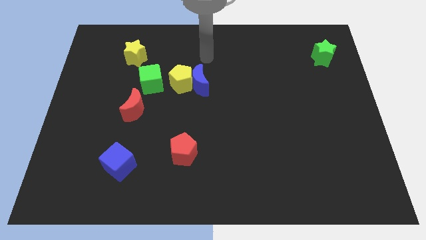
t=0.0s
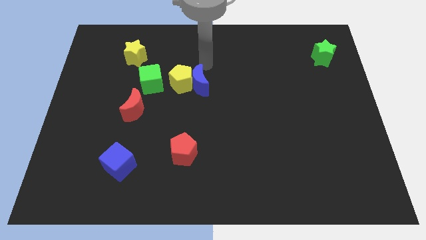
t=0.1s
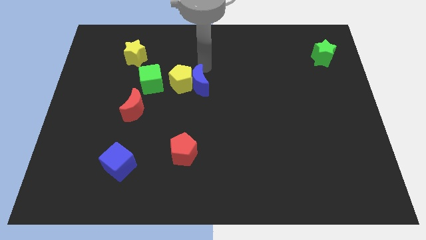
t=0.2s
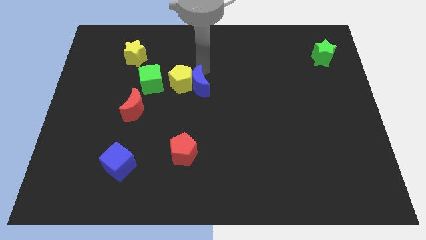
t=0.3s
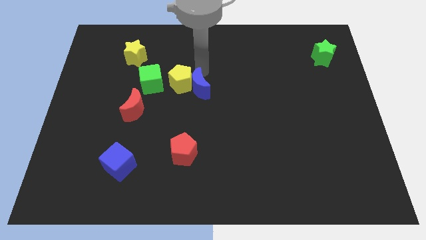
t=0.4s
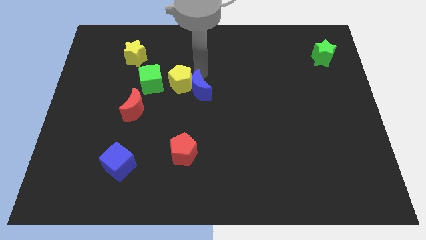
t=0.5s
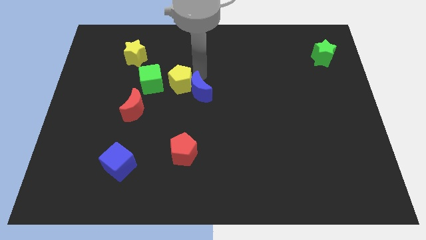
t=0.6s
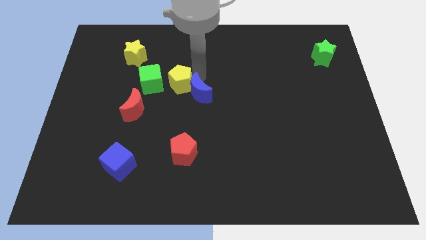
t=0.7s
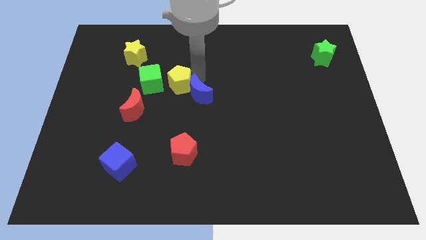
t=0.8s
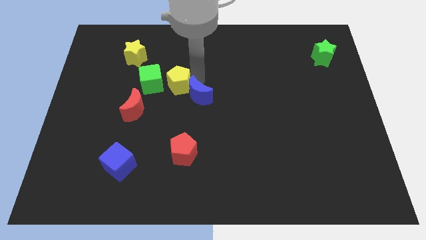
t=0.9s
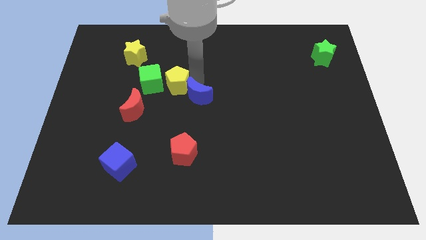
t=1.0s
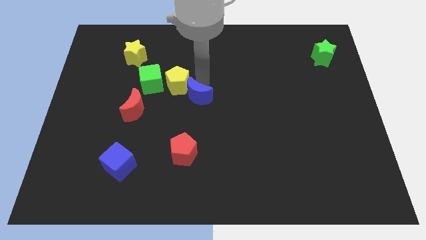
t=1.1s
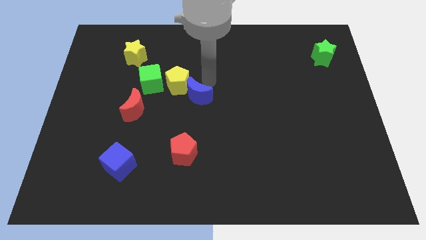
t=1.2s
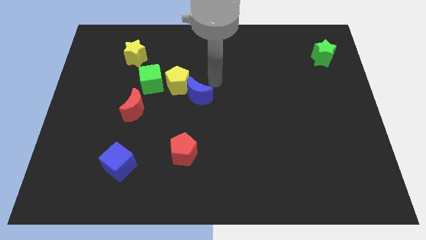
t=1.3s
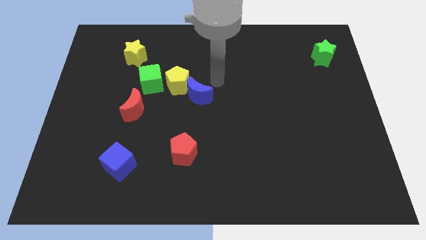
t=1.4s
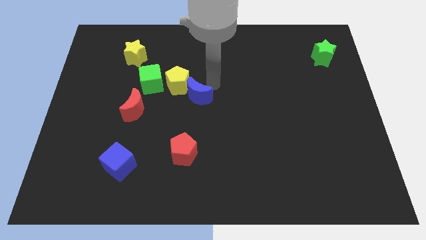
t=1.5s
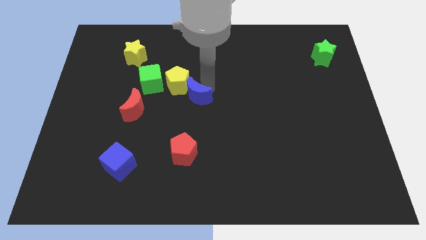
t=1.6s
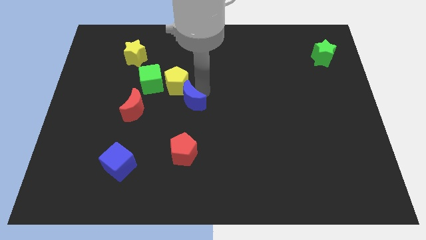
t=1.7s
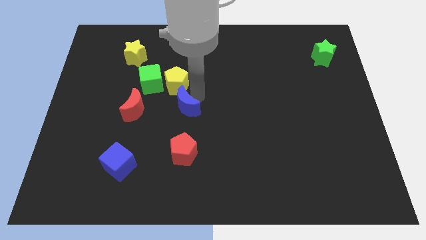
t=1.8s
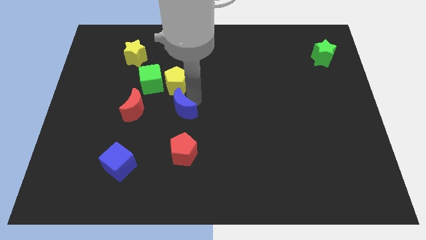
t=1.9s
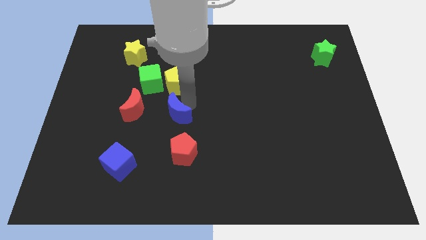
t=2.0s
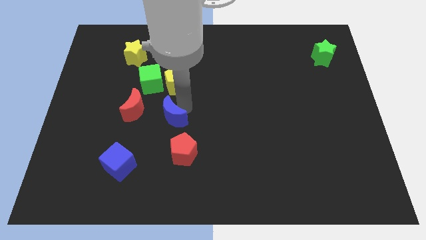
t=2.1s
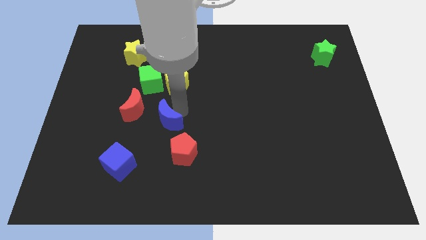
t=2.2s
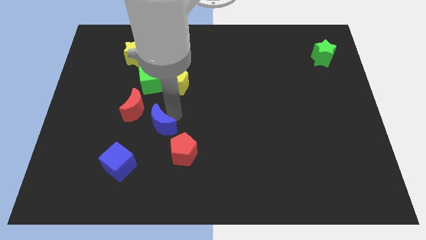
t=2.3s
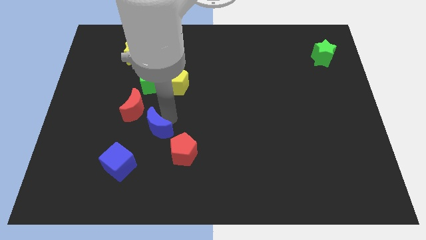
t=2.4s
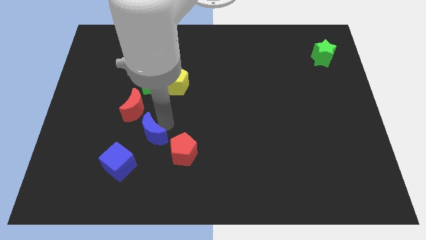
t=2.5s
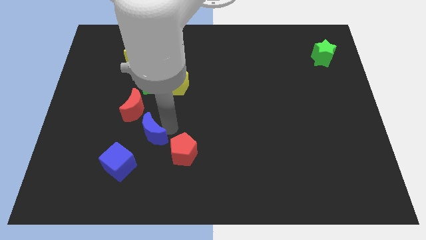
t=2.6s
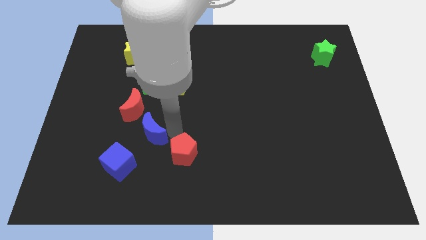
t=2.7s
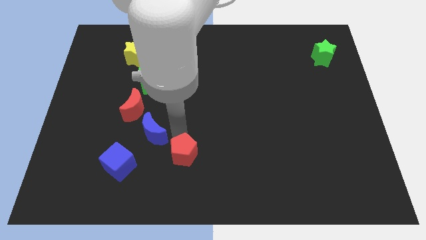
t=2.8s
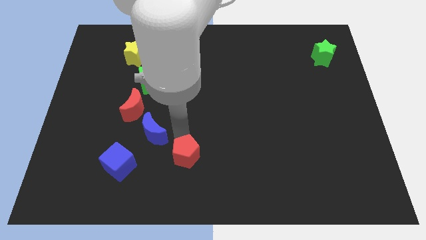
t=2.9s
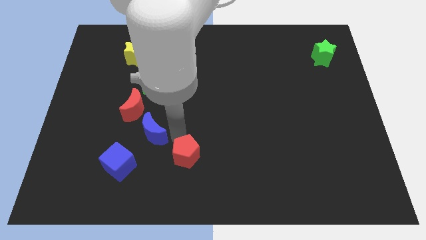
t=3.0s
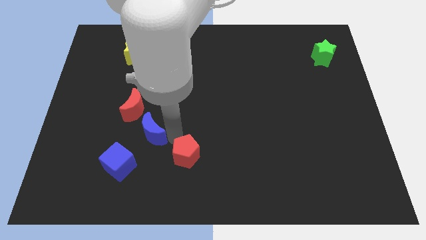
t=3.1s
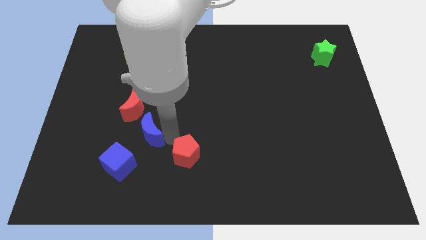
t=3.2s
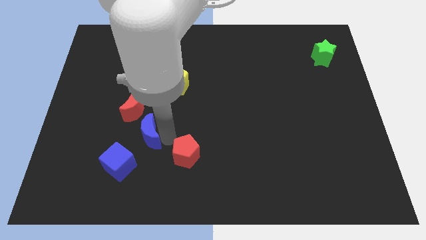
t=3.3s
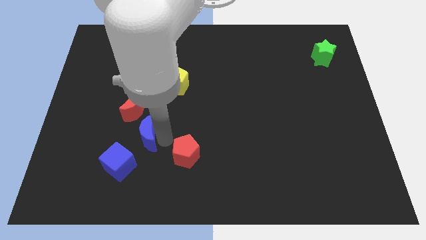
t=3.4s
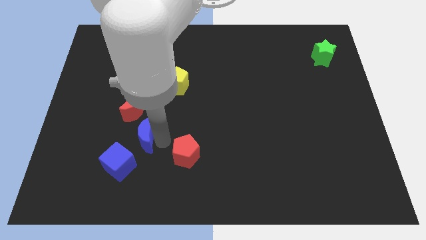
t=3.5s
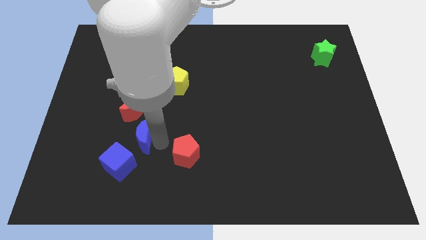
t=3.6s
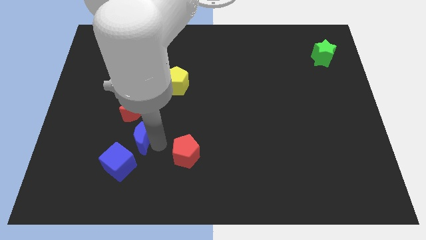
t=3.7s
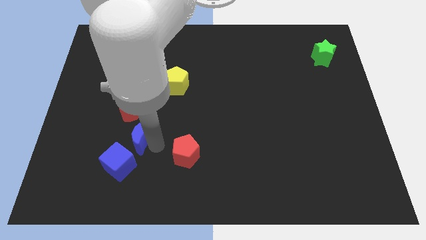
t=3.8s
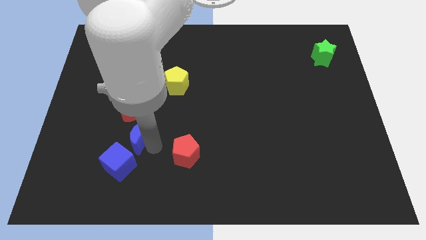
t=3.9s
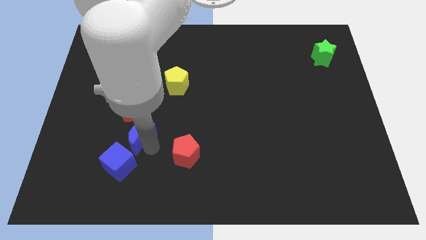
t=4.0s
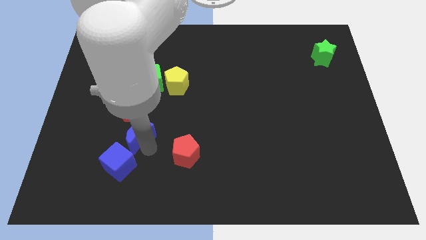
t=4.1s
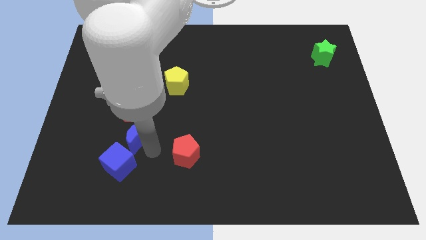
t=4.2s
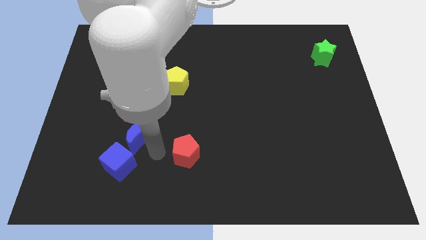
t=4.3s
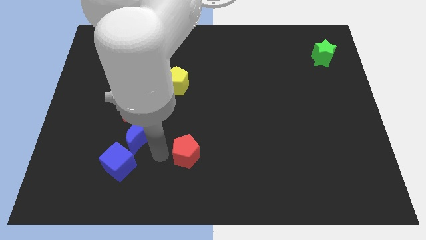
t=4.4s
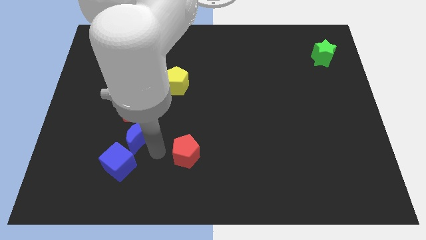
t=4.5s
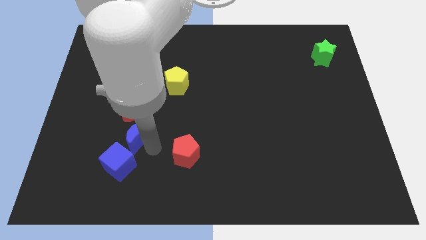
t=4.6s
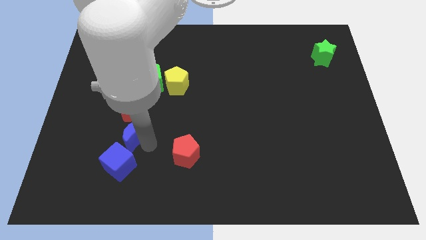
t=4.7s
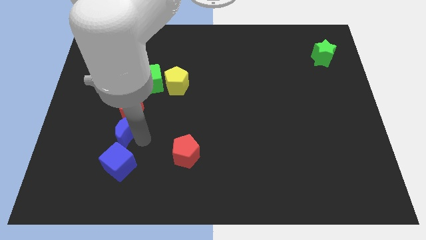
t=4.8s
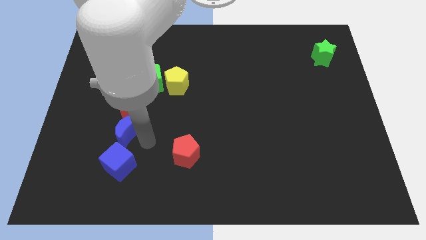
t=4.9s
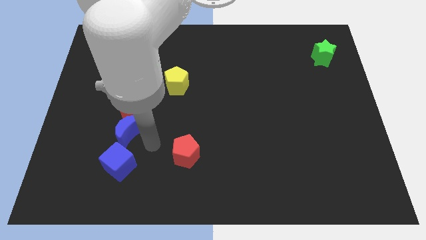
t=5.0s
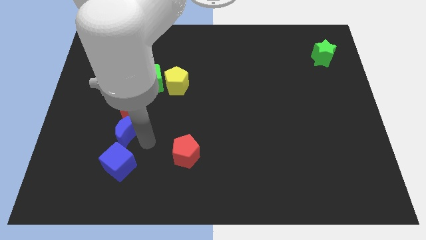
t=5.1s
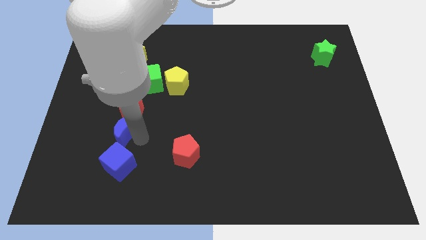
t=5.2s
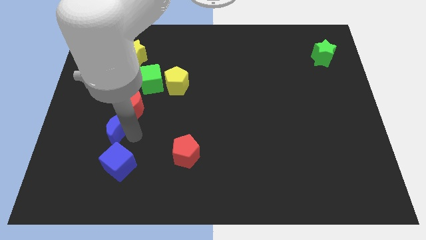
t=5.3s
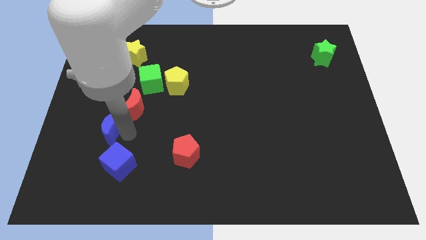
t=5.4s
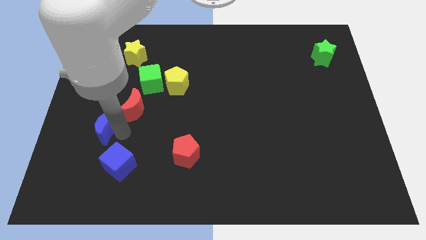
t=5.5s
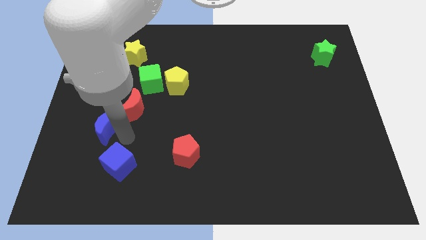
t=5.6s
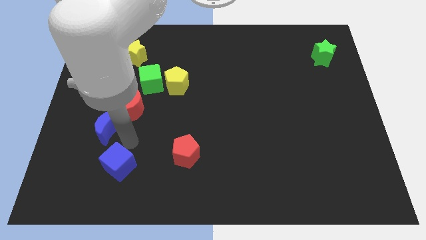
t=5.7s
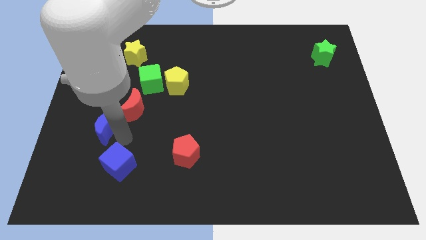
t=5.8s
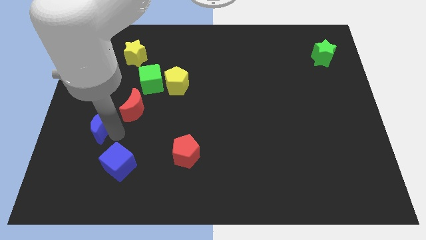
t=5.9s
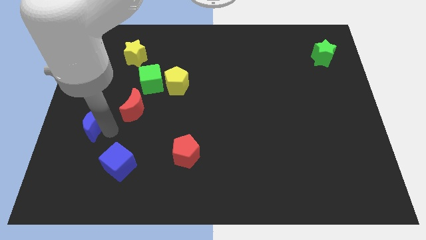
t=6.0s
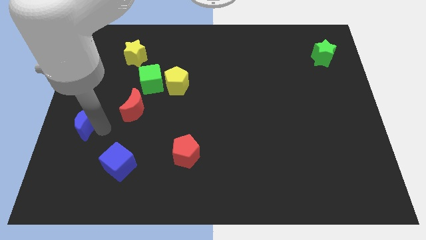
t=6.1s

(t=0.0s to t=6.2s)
push the blue moon to the left side

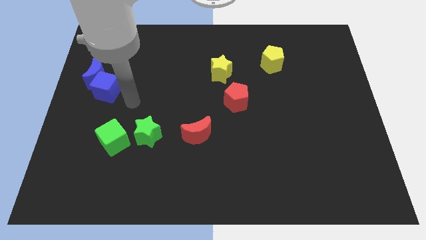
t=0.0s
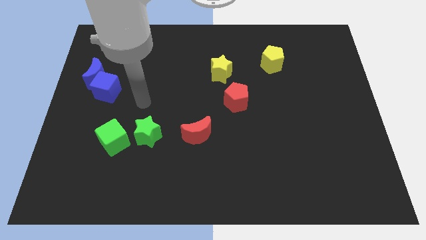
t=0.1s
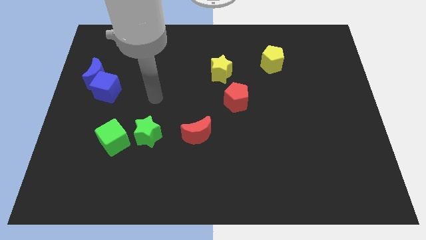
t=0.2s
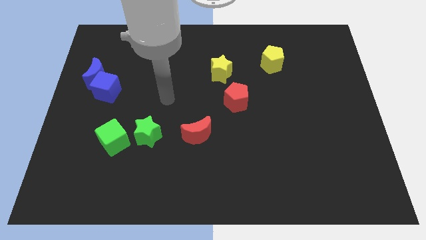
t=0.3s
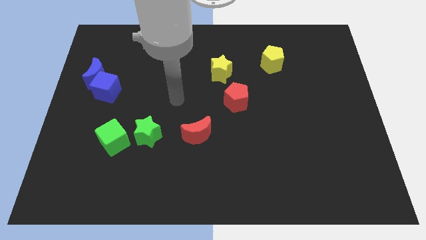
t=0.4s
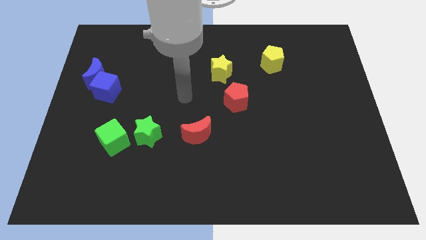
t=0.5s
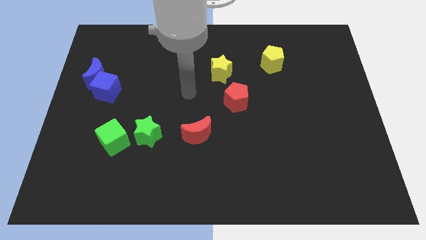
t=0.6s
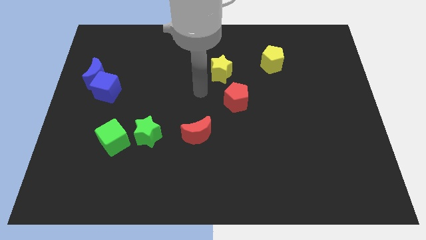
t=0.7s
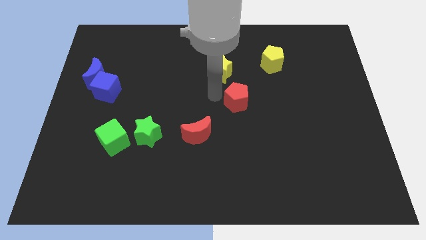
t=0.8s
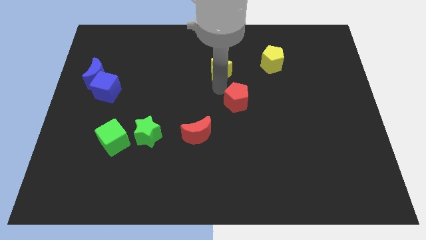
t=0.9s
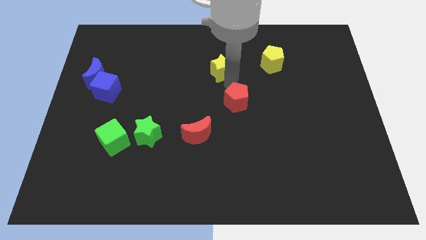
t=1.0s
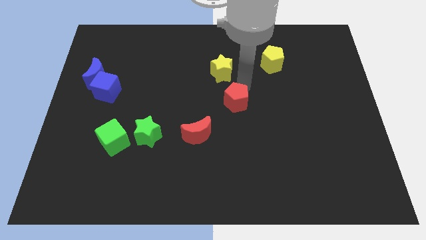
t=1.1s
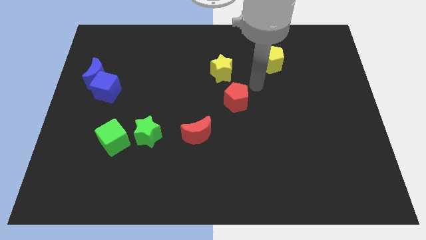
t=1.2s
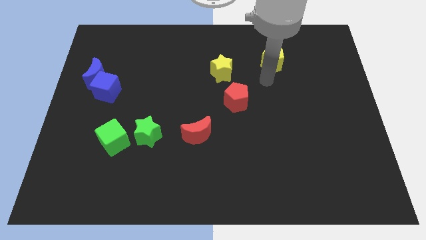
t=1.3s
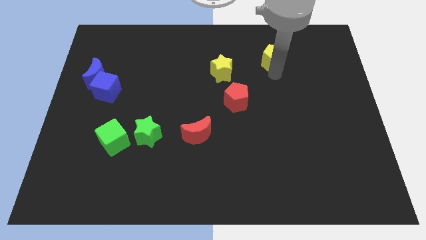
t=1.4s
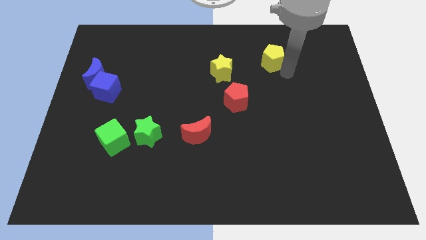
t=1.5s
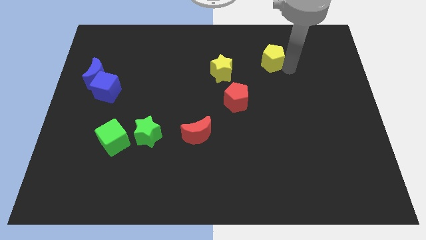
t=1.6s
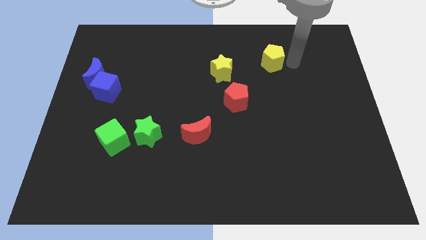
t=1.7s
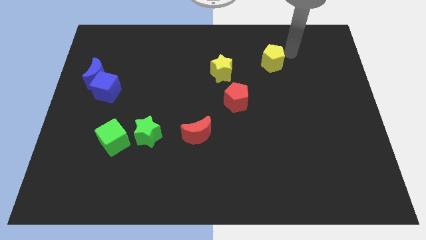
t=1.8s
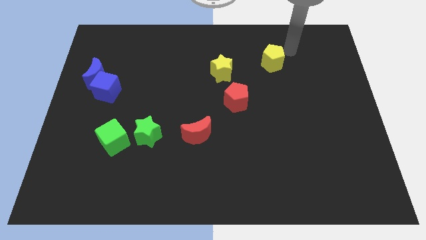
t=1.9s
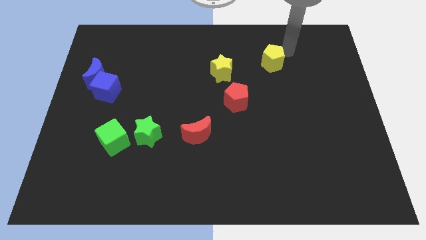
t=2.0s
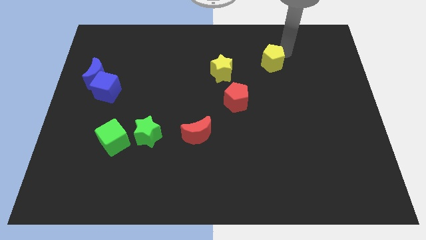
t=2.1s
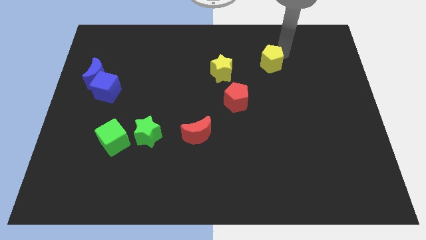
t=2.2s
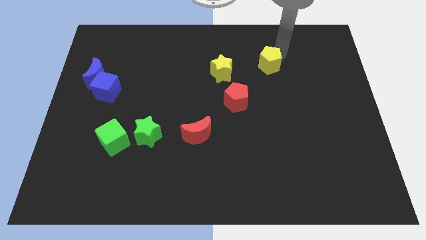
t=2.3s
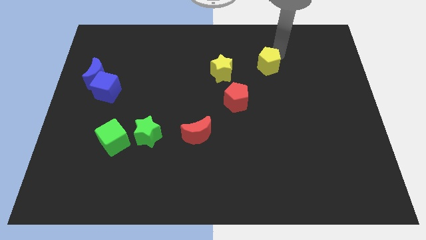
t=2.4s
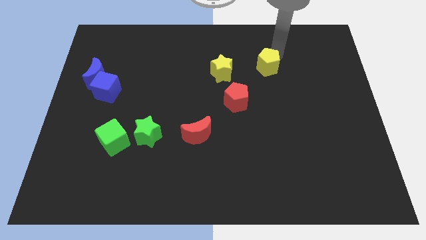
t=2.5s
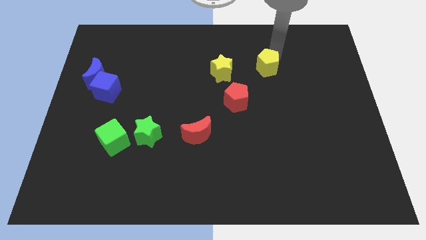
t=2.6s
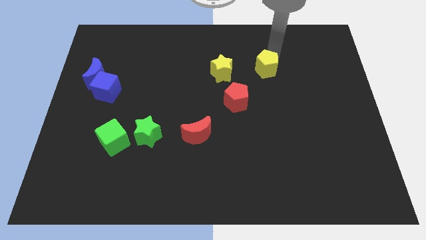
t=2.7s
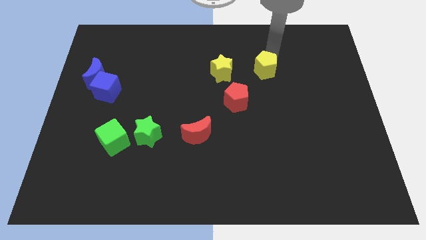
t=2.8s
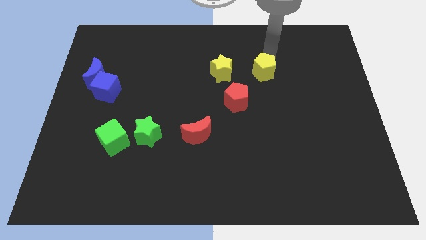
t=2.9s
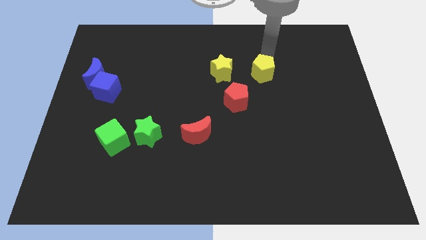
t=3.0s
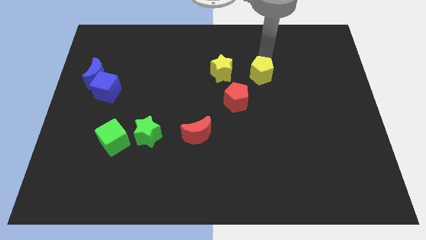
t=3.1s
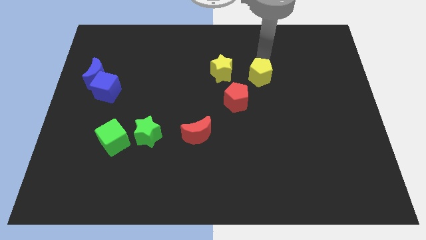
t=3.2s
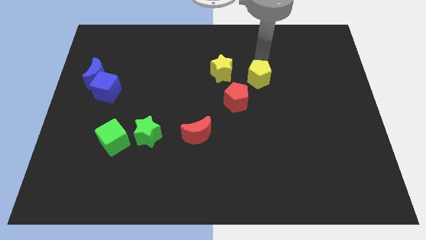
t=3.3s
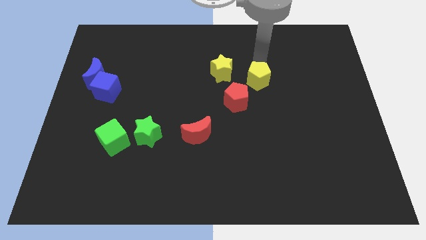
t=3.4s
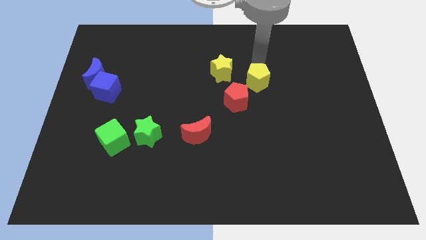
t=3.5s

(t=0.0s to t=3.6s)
put the yellow pentagon to the center
